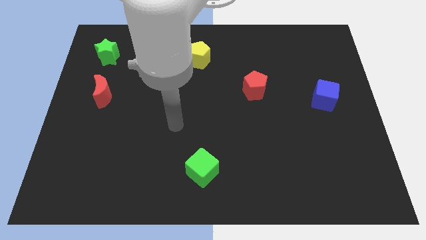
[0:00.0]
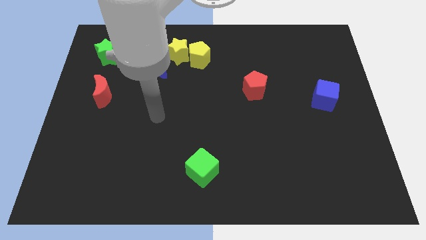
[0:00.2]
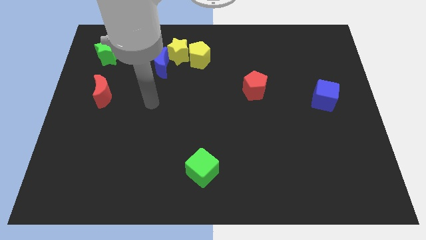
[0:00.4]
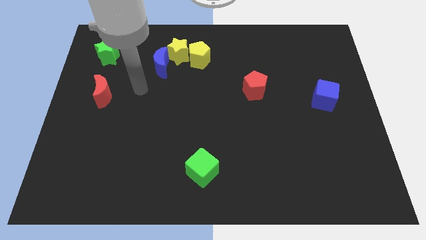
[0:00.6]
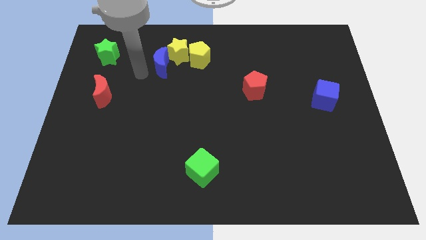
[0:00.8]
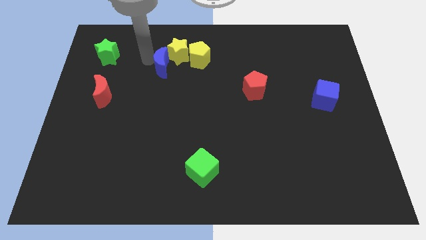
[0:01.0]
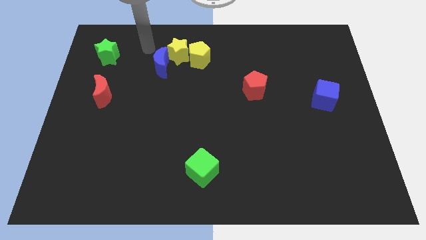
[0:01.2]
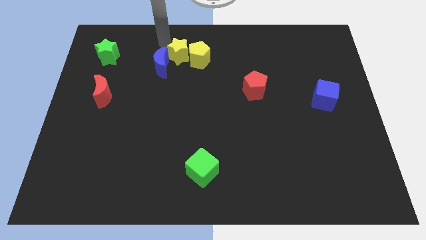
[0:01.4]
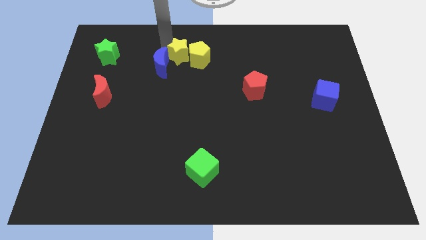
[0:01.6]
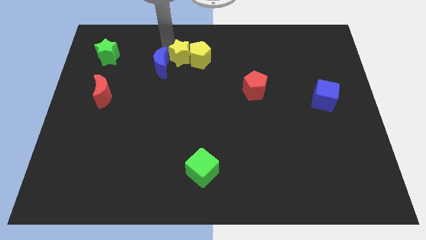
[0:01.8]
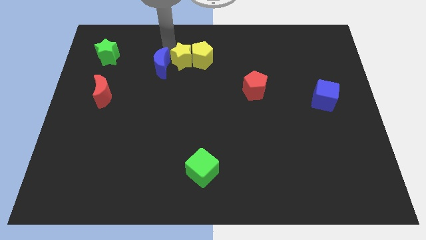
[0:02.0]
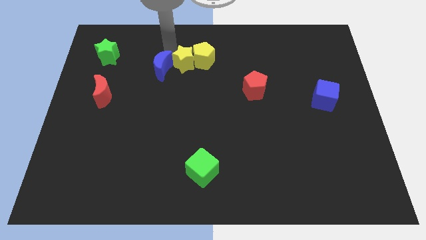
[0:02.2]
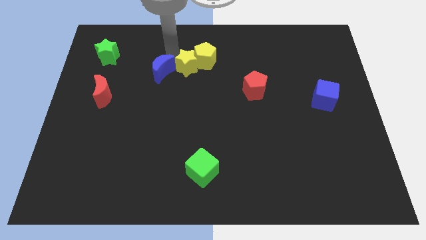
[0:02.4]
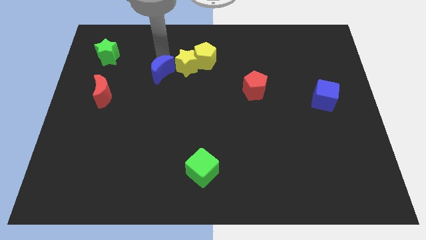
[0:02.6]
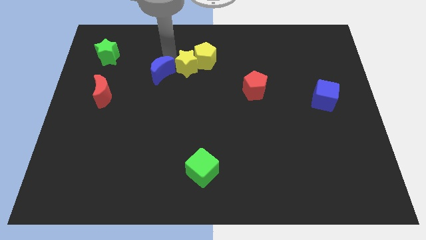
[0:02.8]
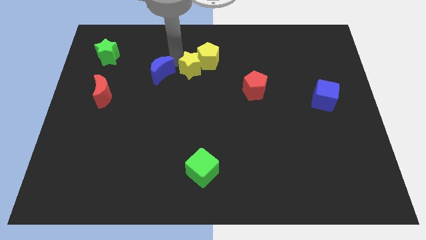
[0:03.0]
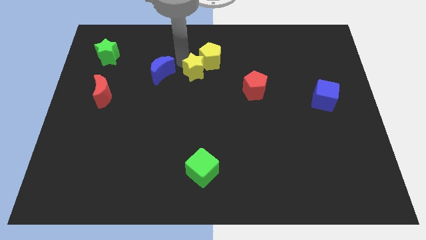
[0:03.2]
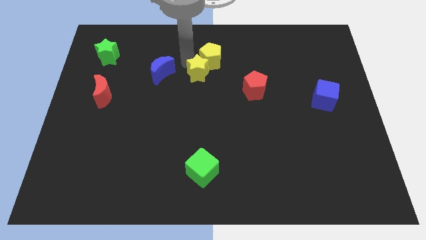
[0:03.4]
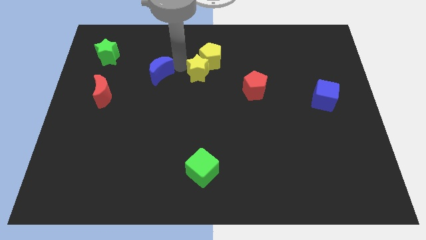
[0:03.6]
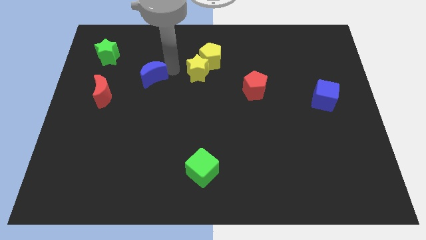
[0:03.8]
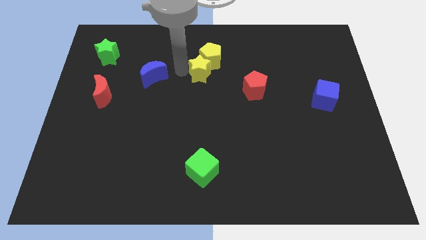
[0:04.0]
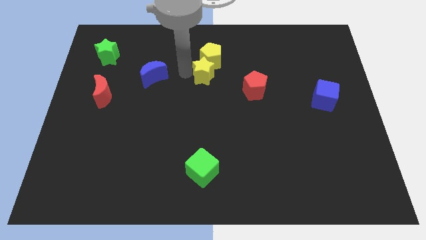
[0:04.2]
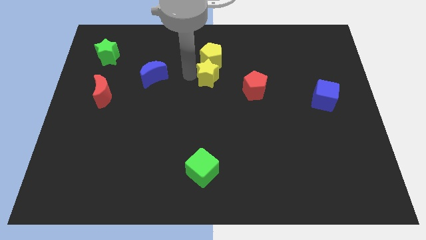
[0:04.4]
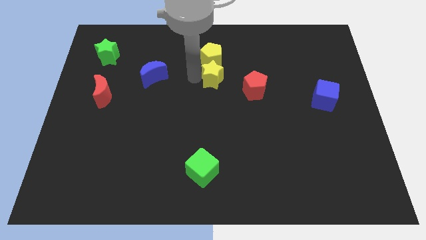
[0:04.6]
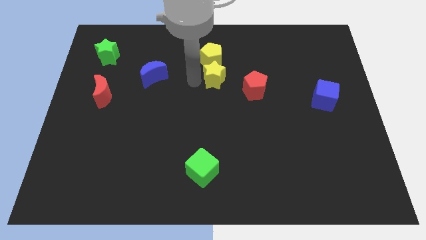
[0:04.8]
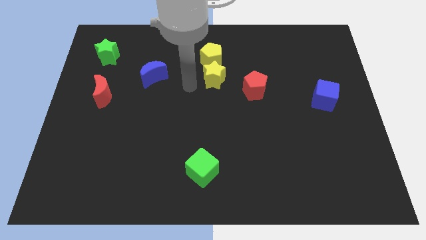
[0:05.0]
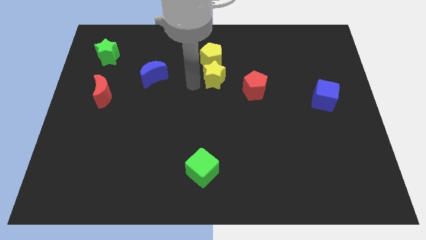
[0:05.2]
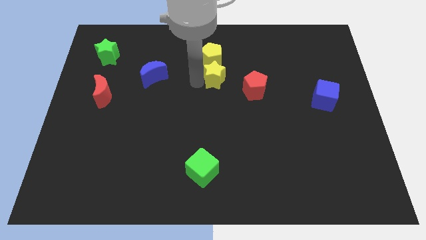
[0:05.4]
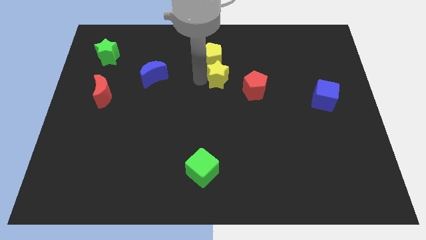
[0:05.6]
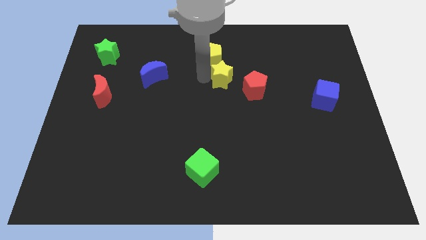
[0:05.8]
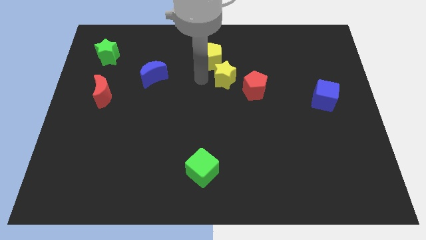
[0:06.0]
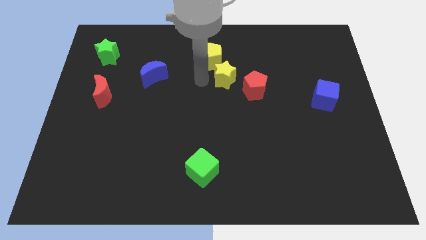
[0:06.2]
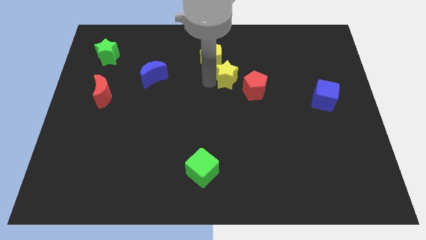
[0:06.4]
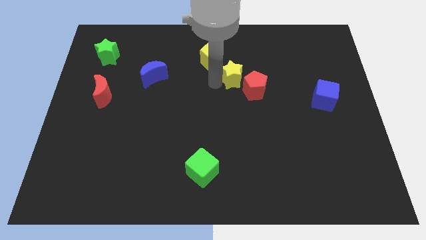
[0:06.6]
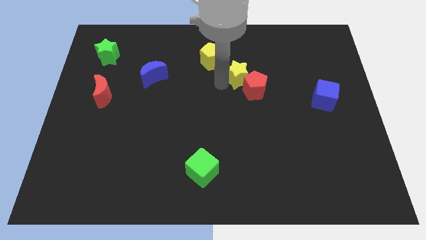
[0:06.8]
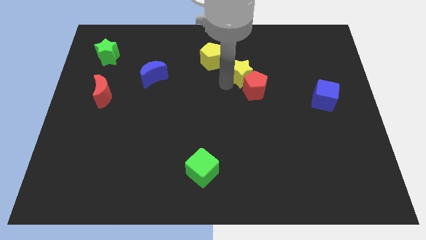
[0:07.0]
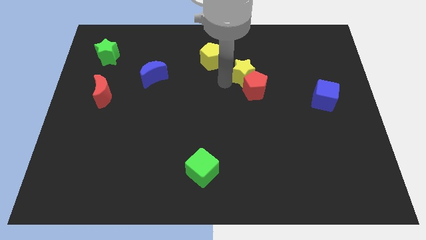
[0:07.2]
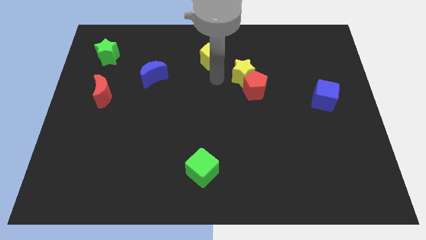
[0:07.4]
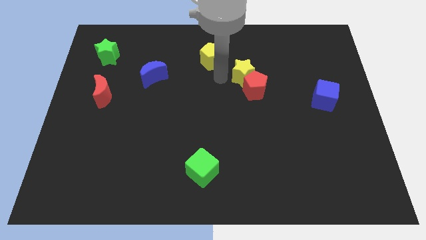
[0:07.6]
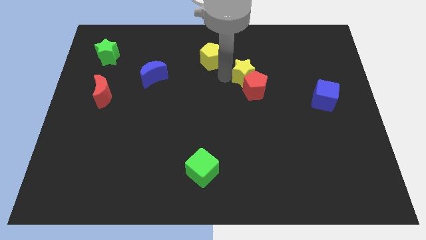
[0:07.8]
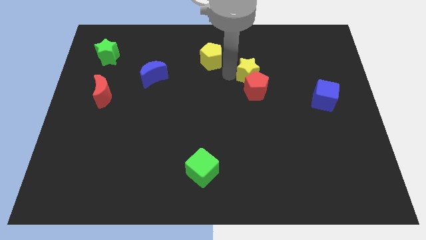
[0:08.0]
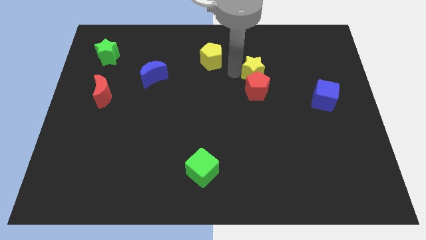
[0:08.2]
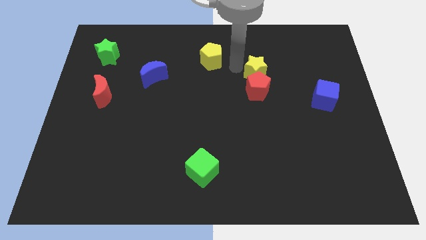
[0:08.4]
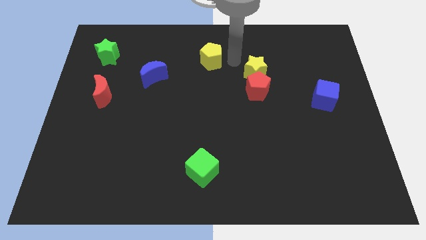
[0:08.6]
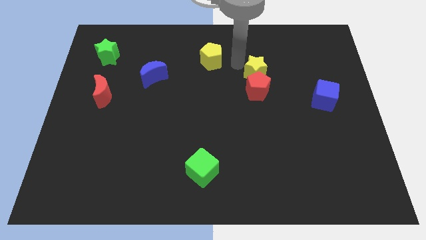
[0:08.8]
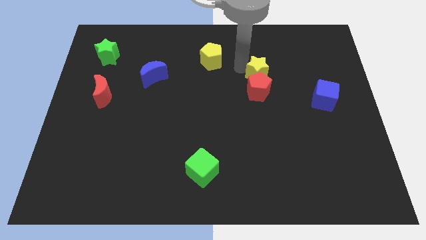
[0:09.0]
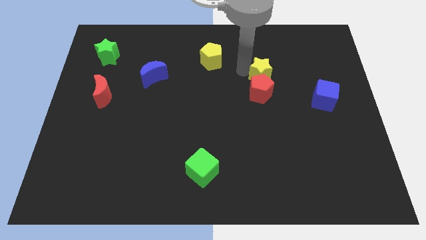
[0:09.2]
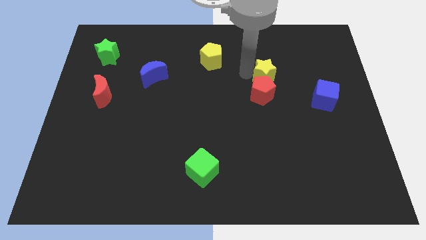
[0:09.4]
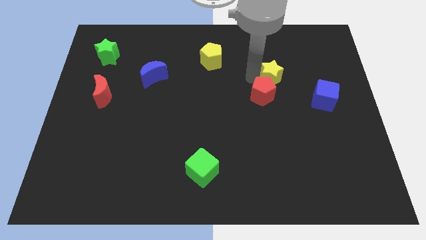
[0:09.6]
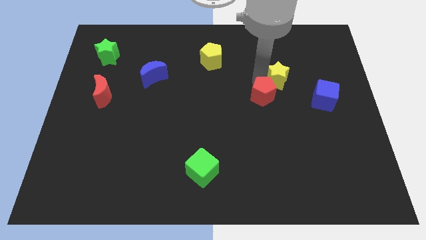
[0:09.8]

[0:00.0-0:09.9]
move the yellow star right of the red pentagon

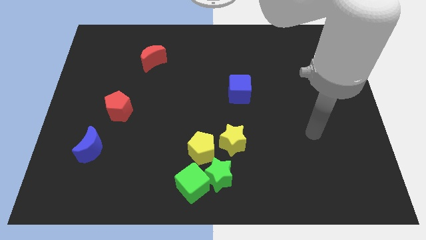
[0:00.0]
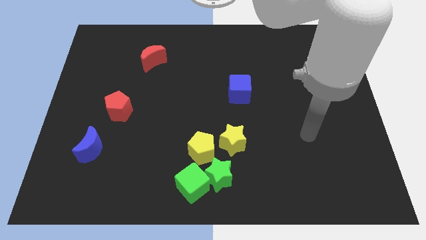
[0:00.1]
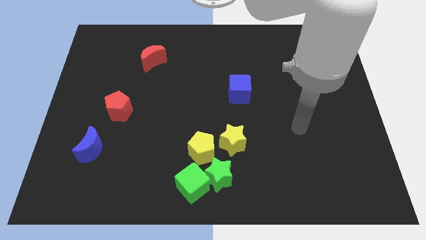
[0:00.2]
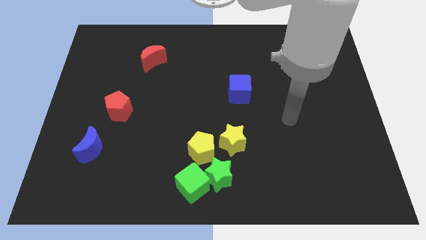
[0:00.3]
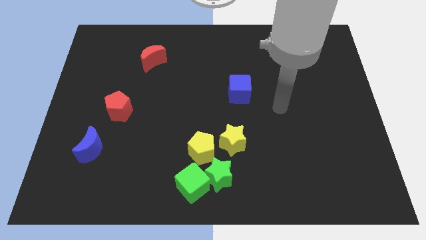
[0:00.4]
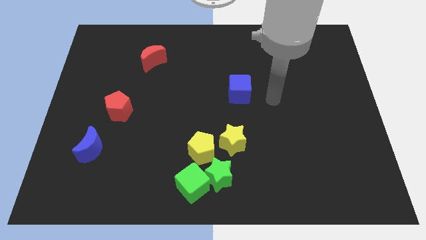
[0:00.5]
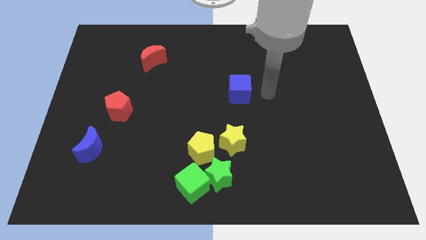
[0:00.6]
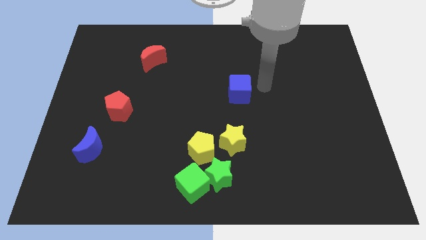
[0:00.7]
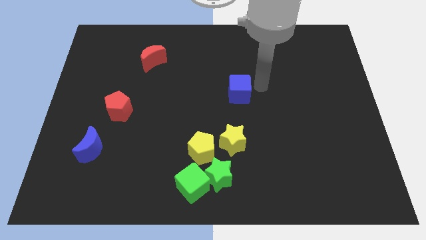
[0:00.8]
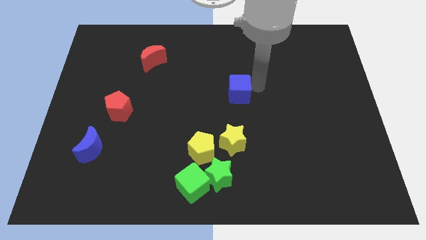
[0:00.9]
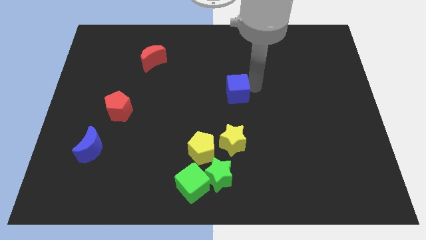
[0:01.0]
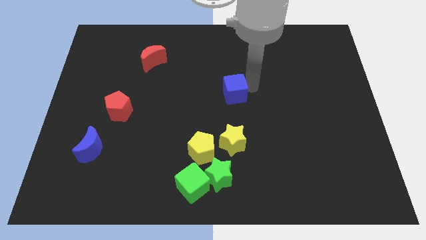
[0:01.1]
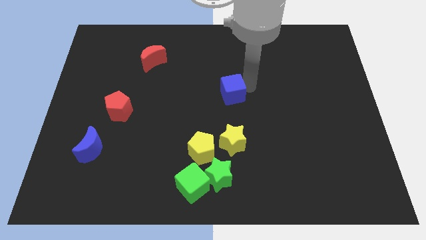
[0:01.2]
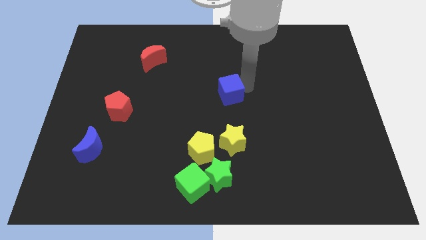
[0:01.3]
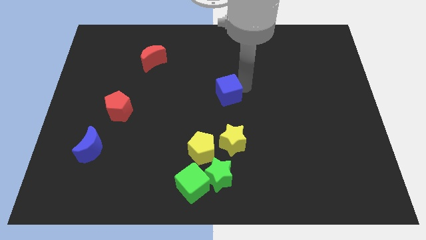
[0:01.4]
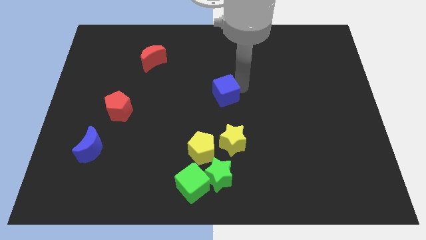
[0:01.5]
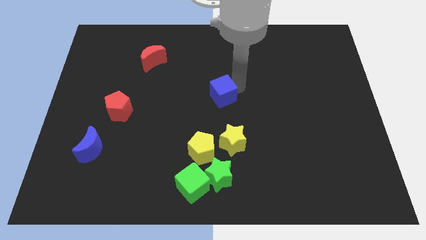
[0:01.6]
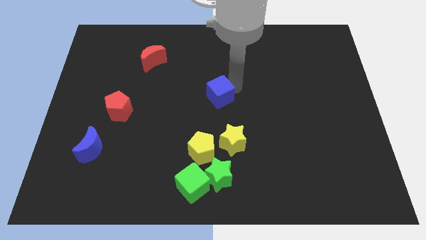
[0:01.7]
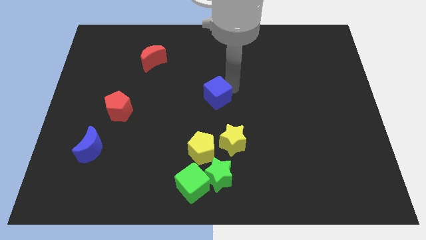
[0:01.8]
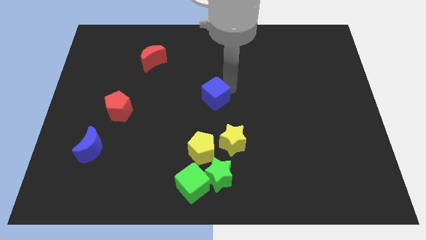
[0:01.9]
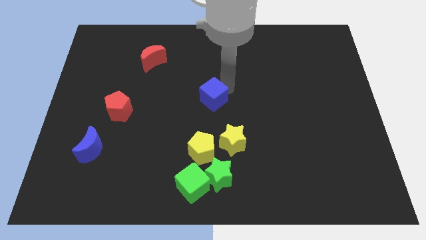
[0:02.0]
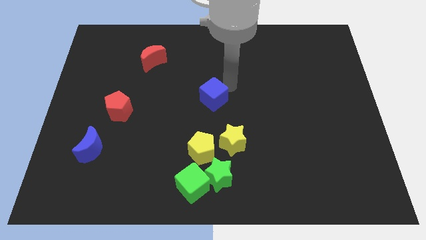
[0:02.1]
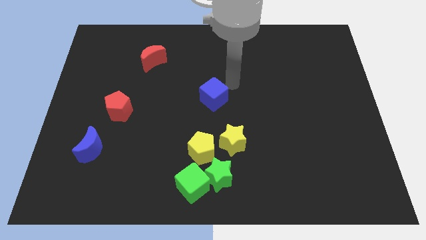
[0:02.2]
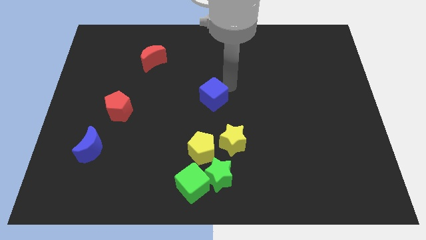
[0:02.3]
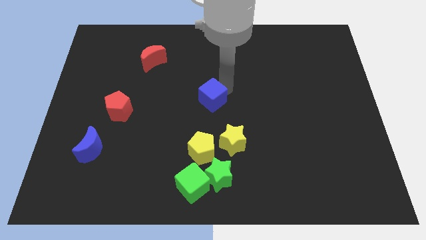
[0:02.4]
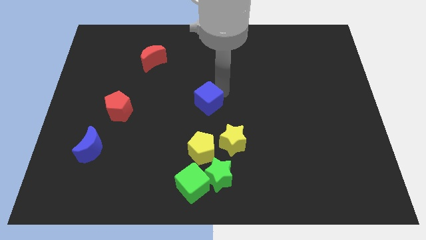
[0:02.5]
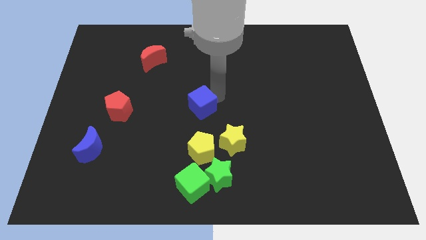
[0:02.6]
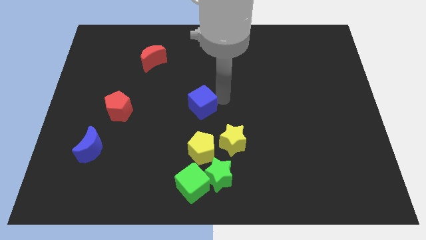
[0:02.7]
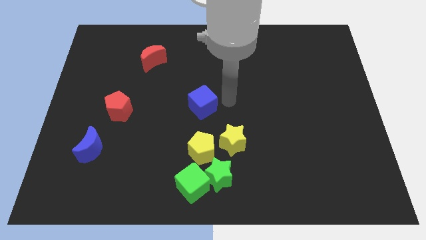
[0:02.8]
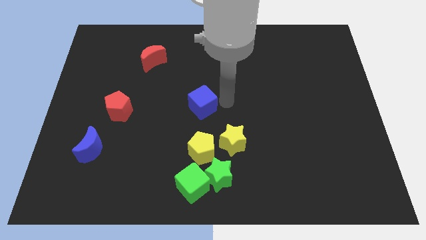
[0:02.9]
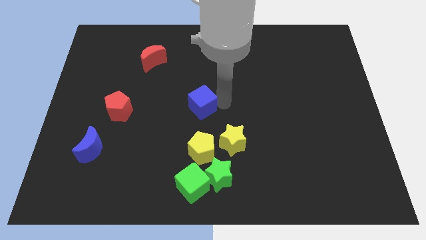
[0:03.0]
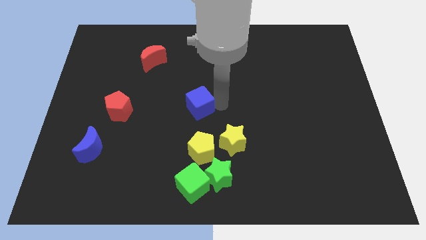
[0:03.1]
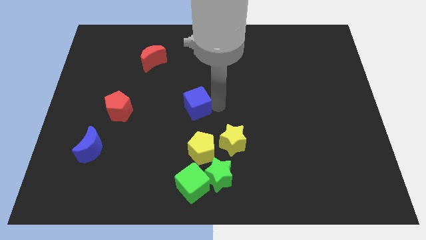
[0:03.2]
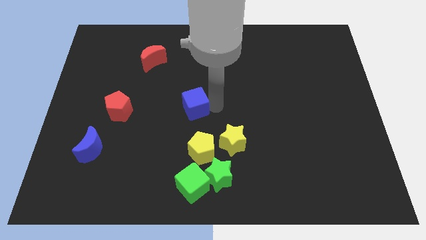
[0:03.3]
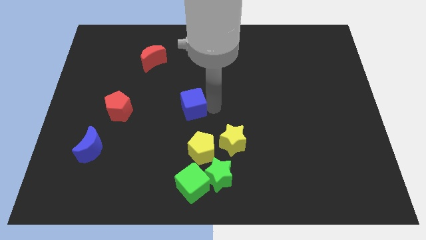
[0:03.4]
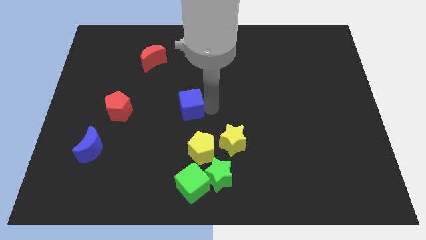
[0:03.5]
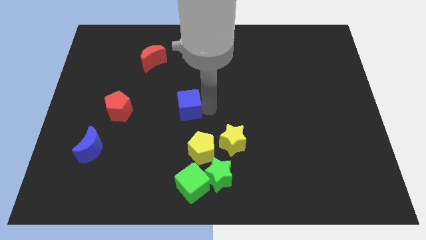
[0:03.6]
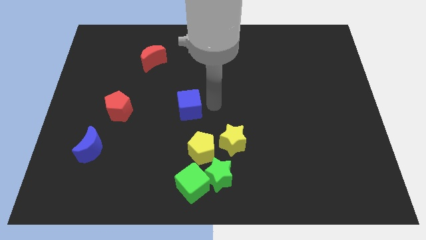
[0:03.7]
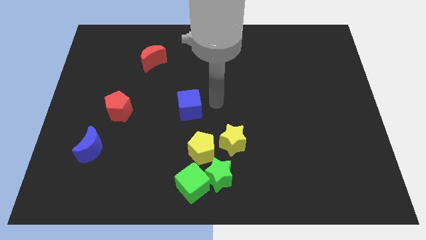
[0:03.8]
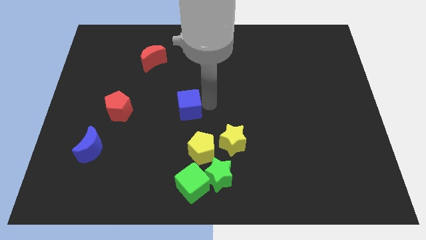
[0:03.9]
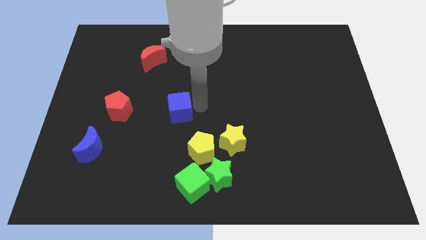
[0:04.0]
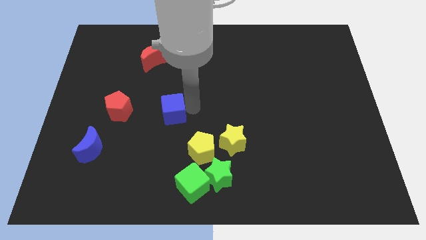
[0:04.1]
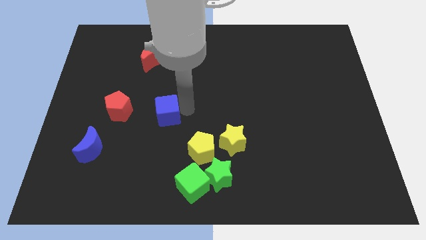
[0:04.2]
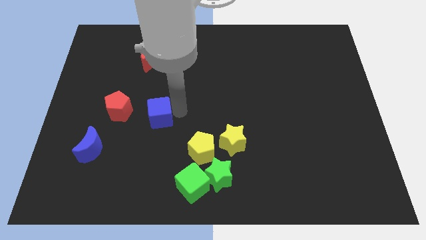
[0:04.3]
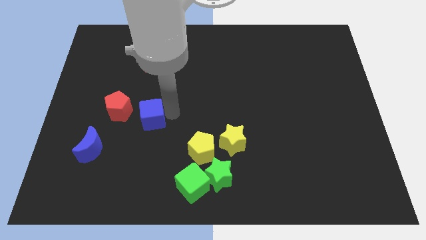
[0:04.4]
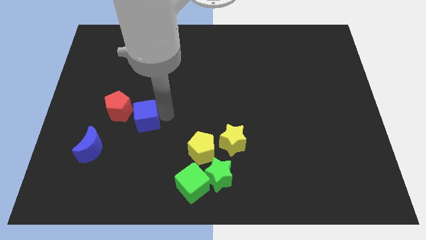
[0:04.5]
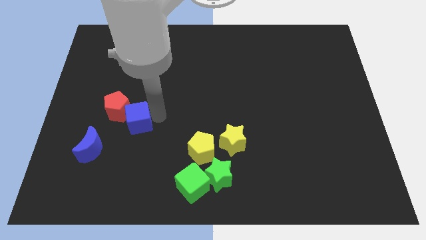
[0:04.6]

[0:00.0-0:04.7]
slide the blue cube diagonally up and to the right of the blue moon
